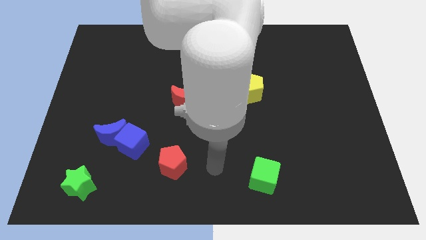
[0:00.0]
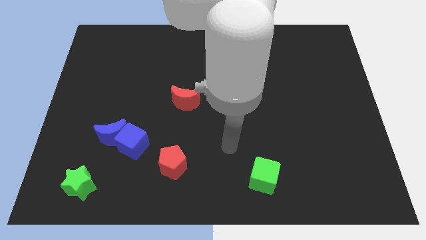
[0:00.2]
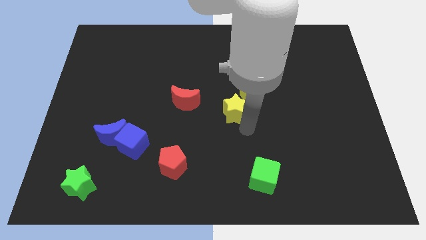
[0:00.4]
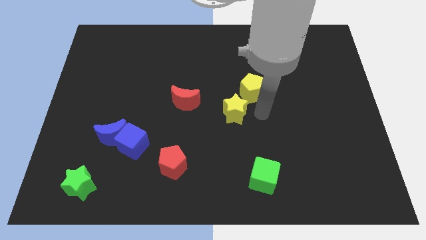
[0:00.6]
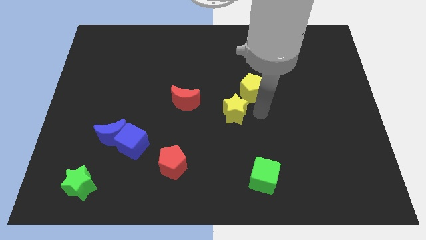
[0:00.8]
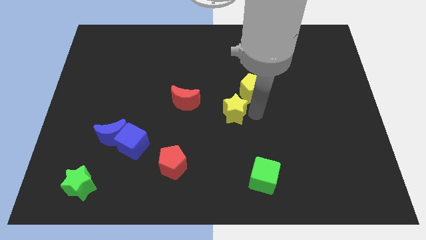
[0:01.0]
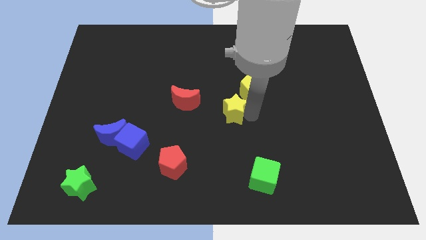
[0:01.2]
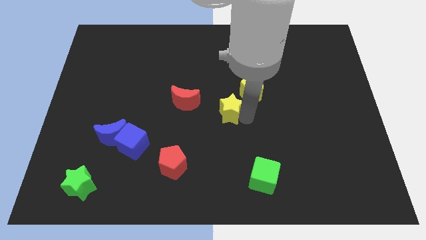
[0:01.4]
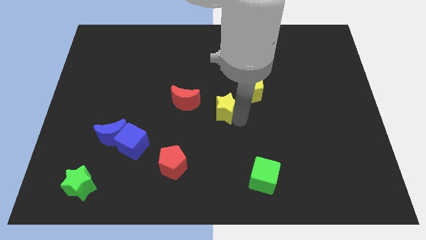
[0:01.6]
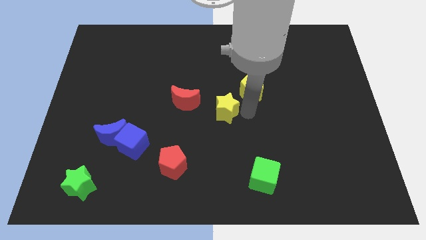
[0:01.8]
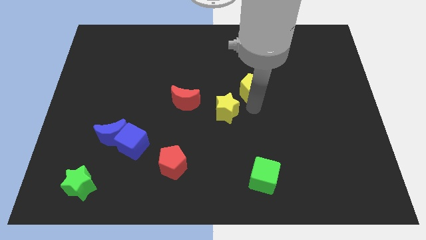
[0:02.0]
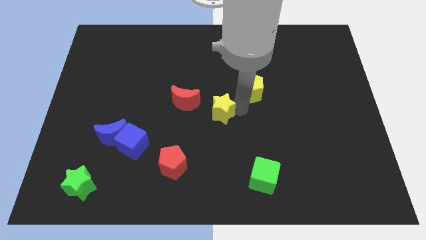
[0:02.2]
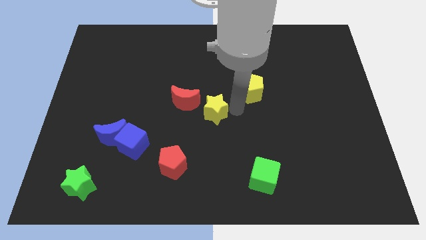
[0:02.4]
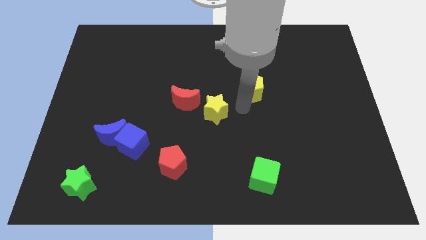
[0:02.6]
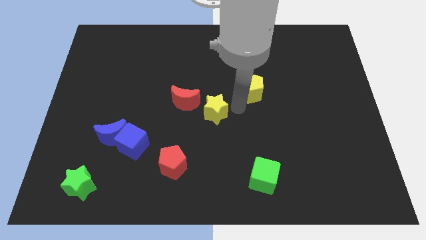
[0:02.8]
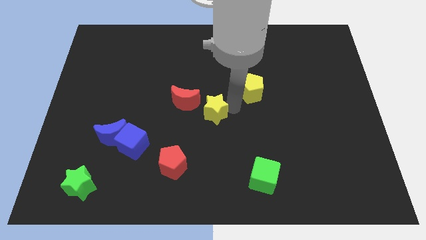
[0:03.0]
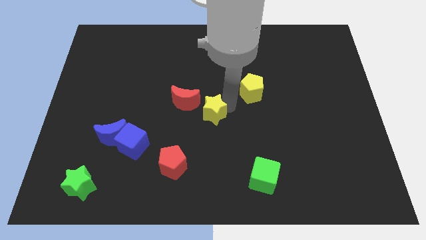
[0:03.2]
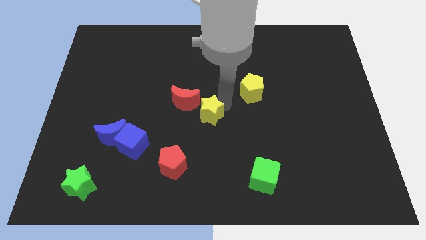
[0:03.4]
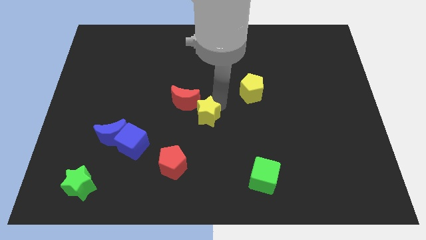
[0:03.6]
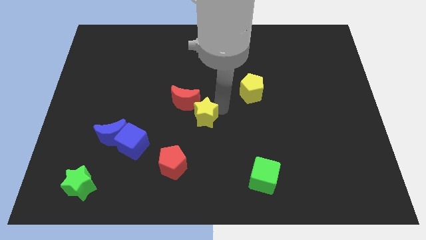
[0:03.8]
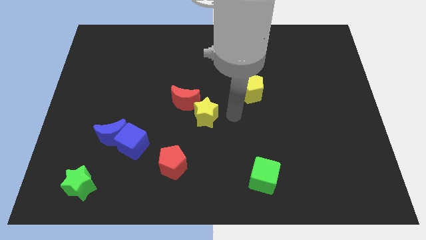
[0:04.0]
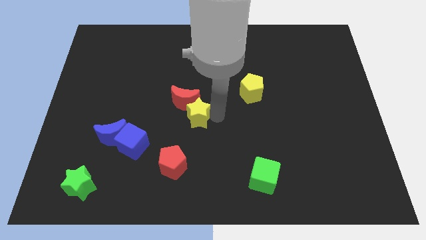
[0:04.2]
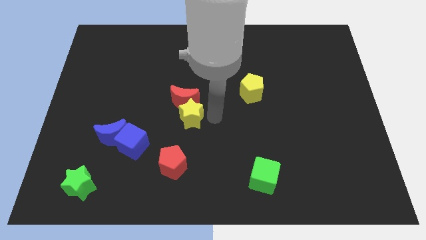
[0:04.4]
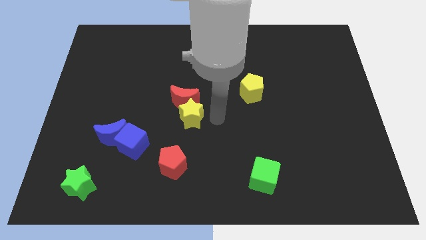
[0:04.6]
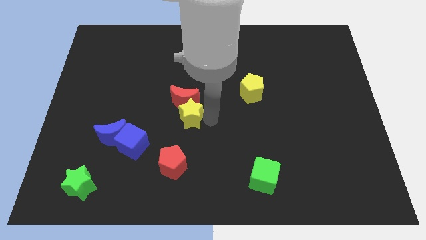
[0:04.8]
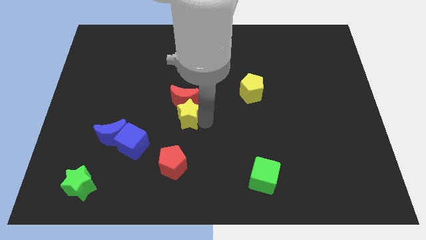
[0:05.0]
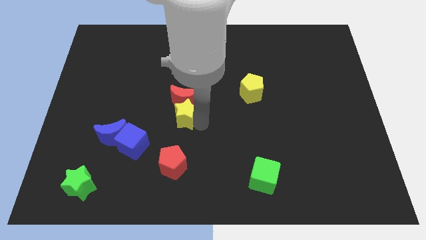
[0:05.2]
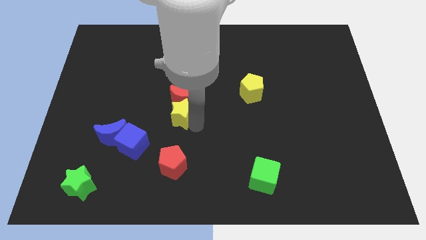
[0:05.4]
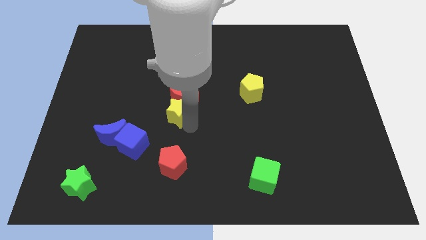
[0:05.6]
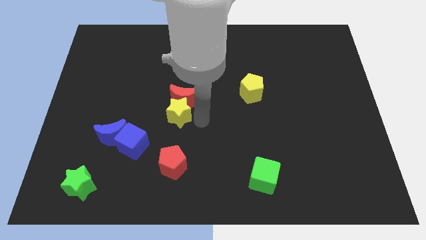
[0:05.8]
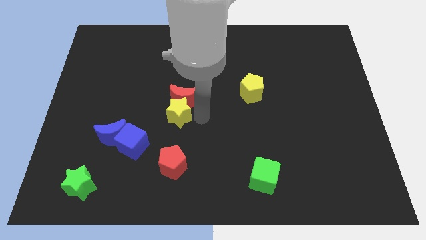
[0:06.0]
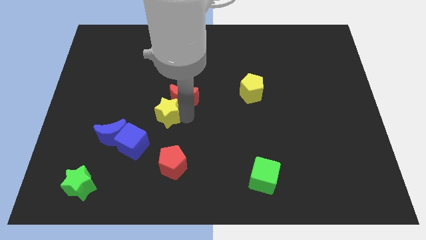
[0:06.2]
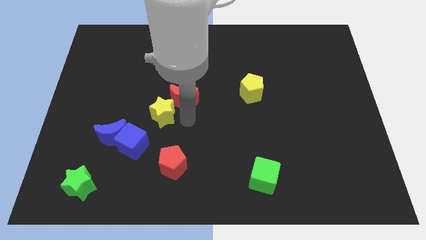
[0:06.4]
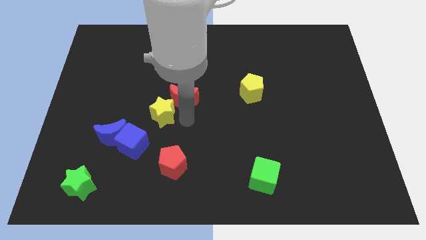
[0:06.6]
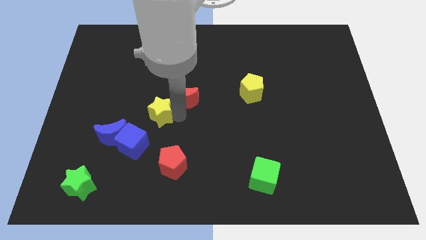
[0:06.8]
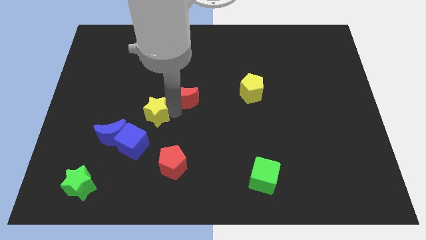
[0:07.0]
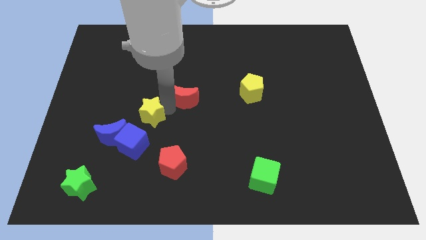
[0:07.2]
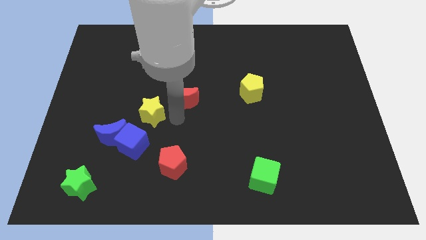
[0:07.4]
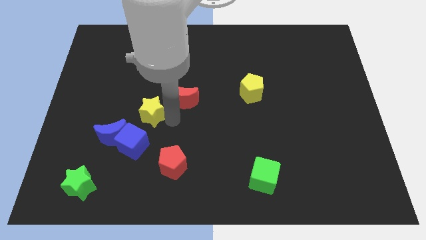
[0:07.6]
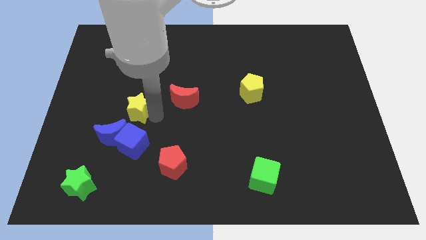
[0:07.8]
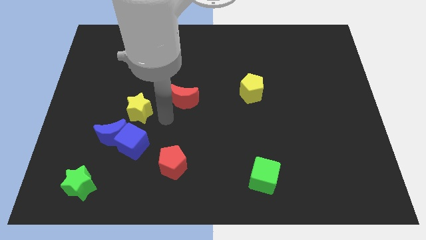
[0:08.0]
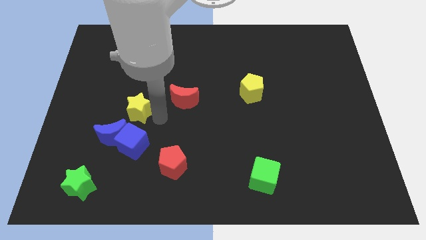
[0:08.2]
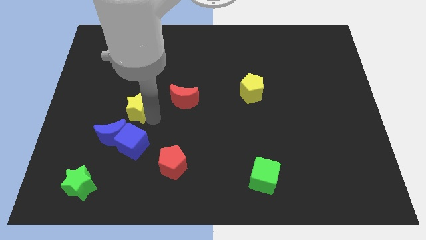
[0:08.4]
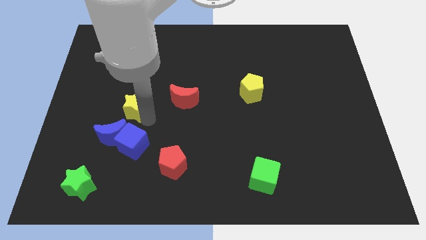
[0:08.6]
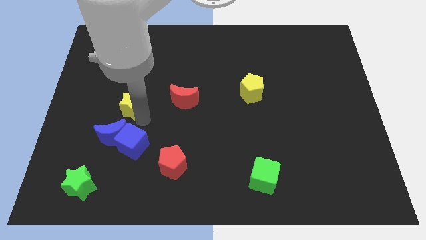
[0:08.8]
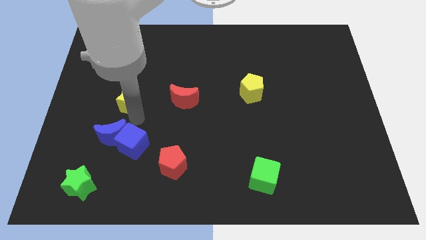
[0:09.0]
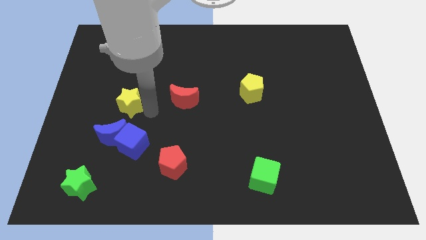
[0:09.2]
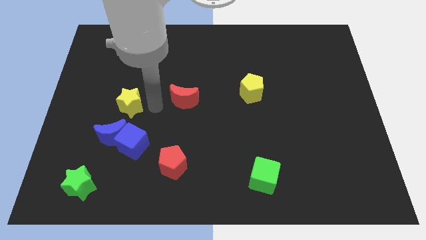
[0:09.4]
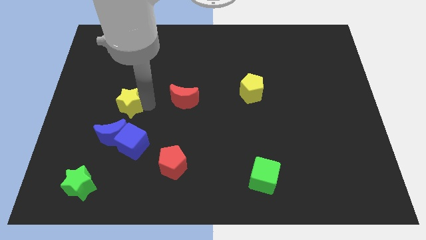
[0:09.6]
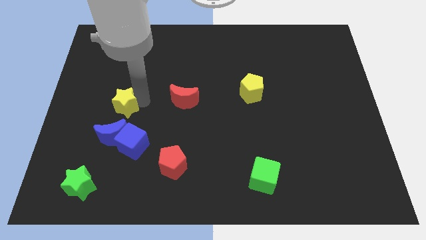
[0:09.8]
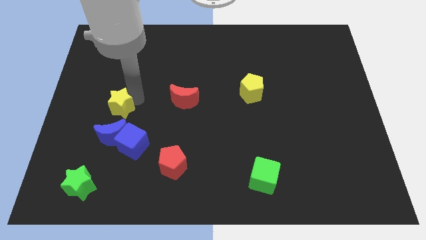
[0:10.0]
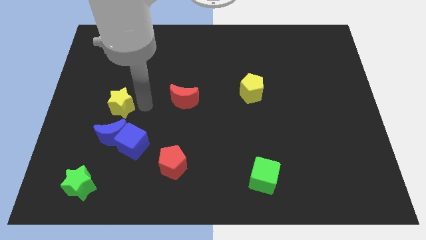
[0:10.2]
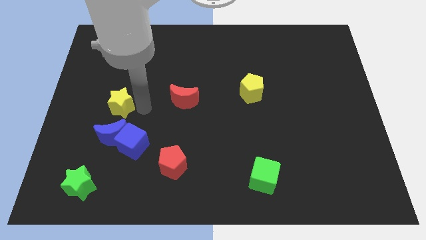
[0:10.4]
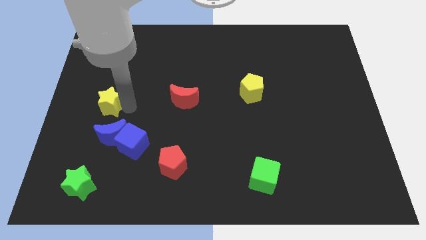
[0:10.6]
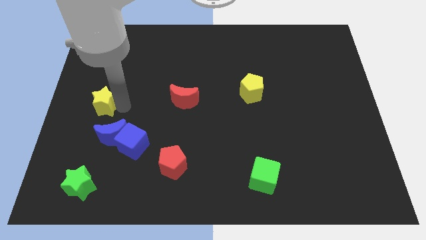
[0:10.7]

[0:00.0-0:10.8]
push the yellow star to the left side of the board

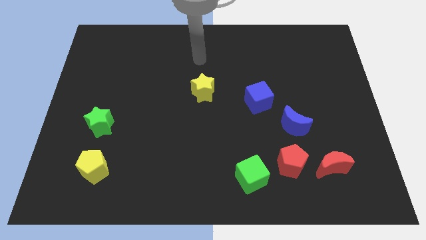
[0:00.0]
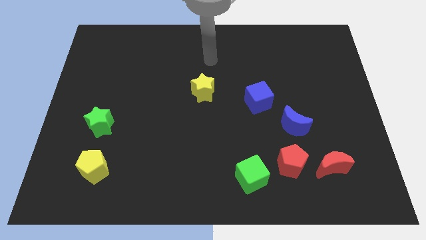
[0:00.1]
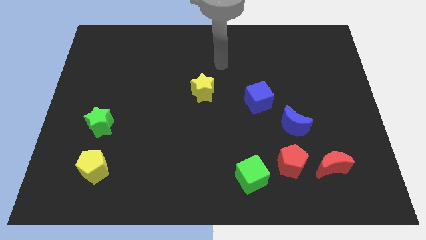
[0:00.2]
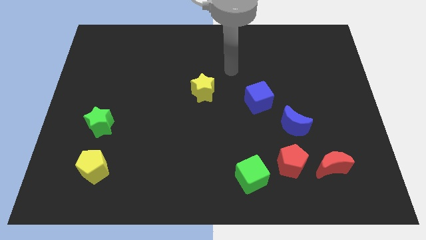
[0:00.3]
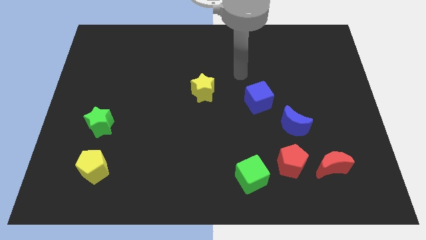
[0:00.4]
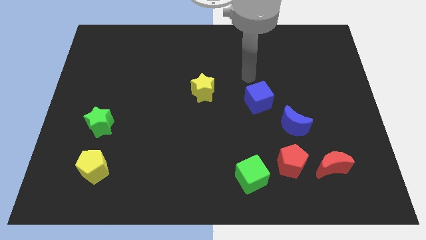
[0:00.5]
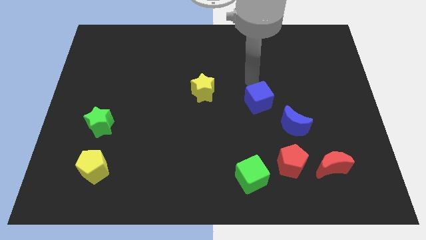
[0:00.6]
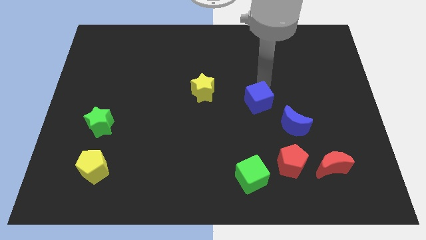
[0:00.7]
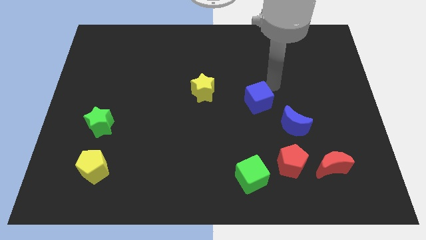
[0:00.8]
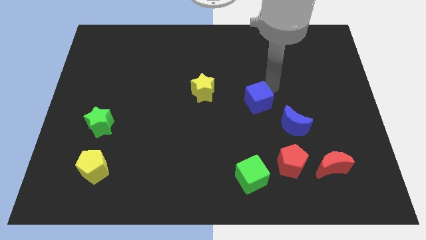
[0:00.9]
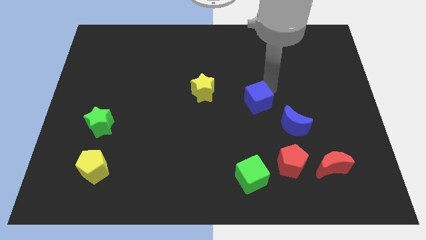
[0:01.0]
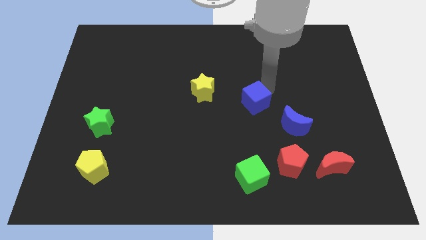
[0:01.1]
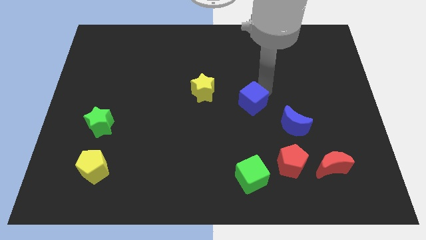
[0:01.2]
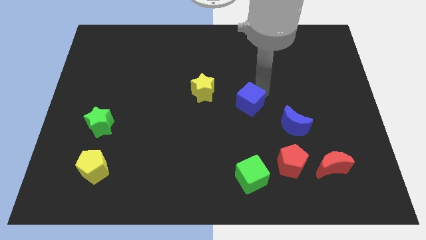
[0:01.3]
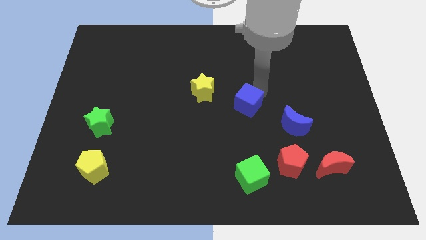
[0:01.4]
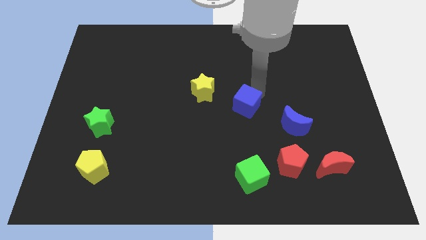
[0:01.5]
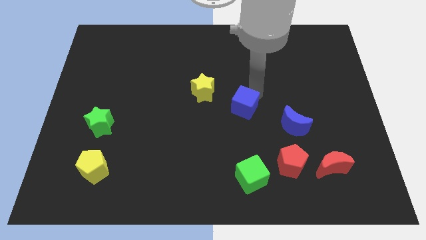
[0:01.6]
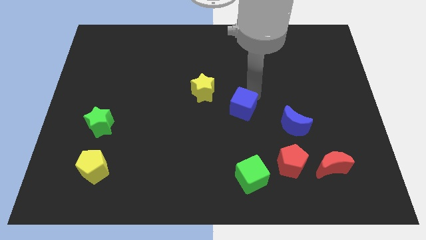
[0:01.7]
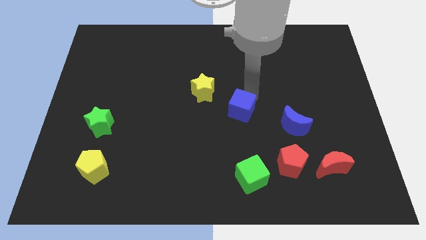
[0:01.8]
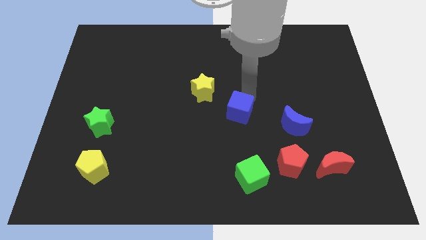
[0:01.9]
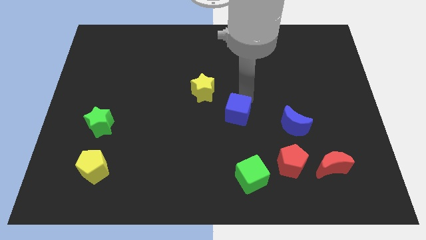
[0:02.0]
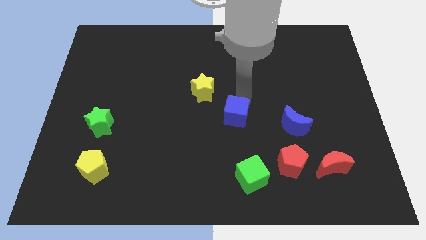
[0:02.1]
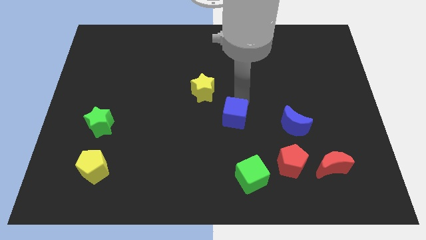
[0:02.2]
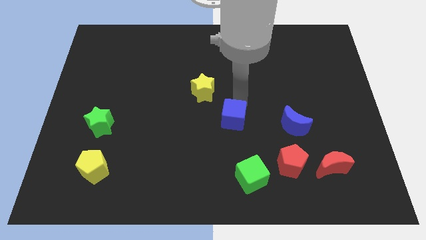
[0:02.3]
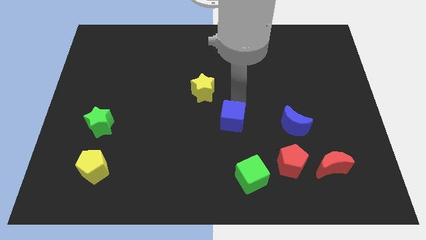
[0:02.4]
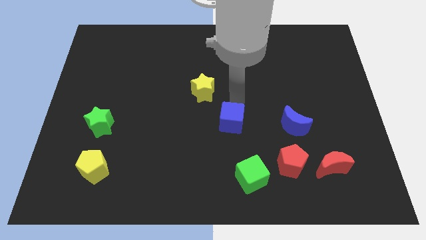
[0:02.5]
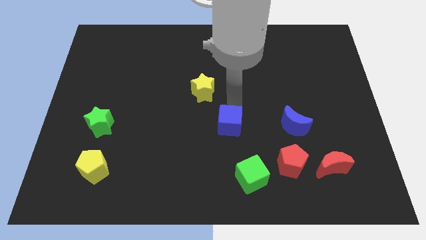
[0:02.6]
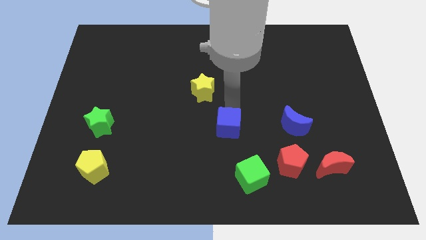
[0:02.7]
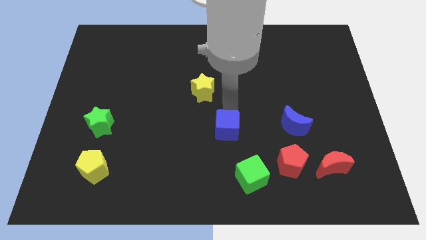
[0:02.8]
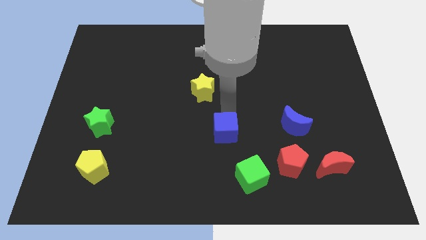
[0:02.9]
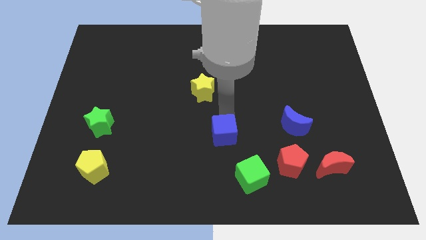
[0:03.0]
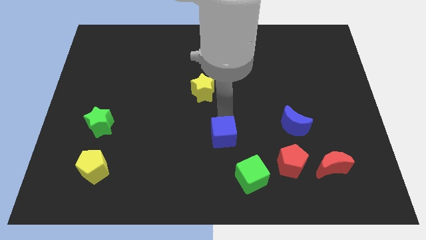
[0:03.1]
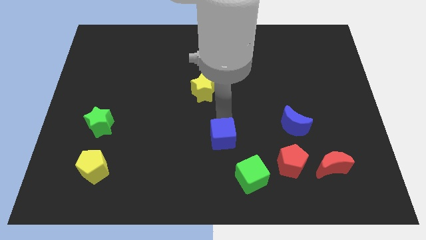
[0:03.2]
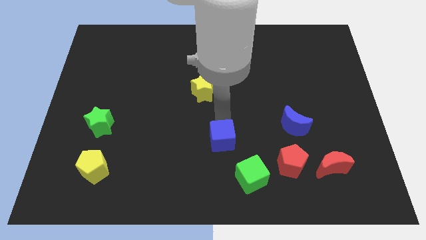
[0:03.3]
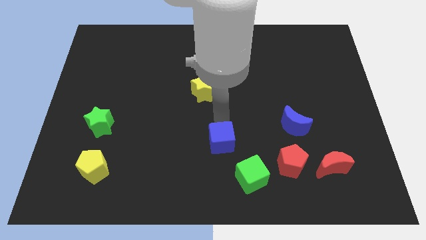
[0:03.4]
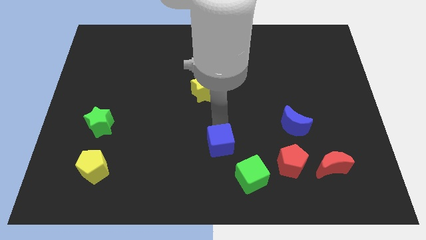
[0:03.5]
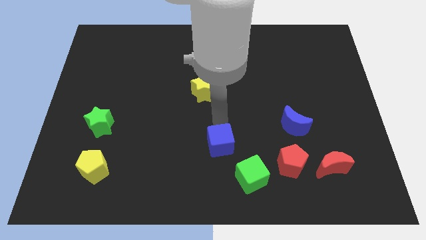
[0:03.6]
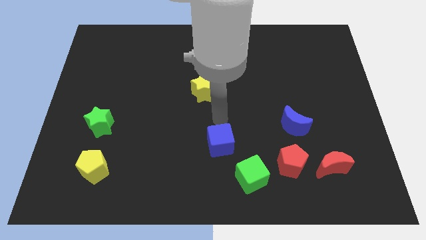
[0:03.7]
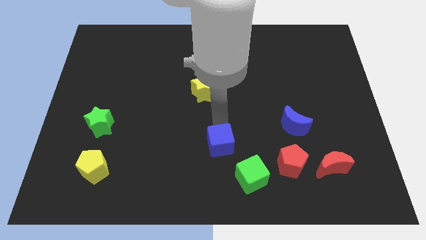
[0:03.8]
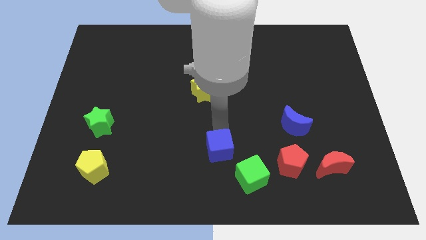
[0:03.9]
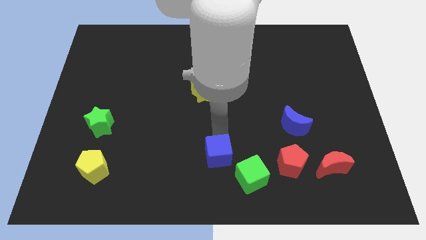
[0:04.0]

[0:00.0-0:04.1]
slide the blue cube to the bottom
